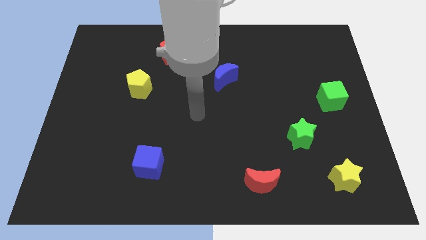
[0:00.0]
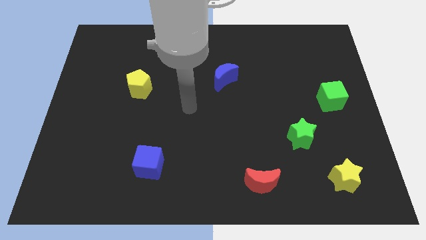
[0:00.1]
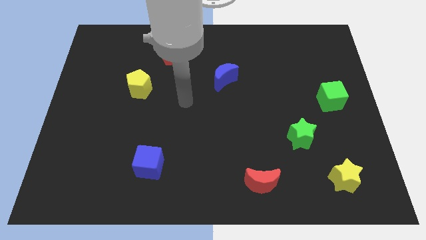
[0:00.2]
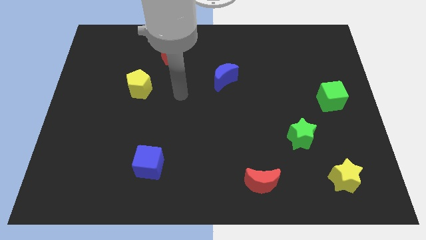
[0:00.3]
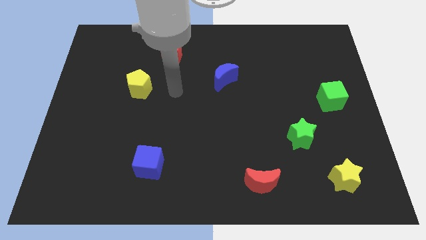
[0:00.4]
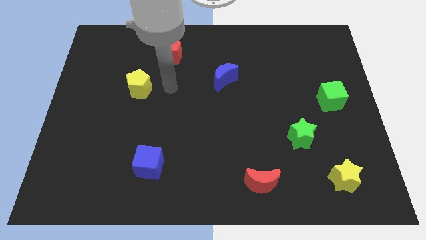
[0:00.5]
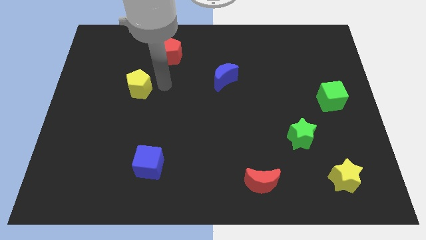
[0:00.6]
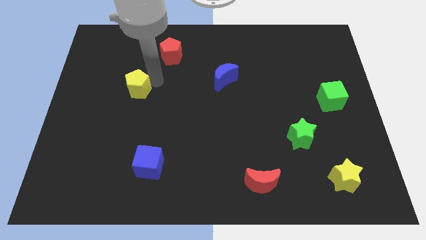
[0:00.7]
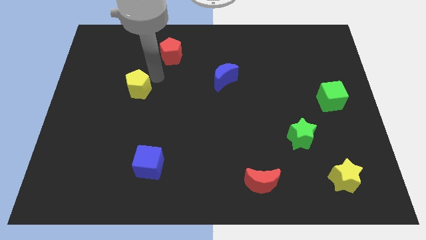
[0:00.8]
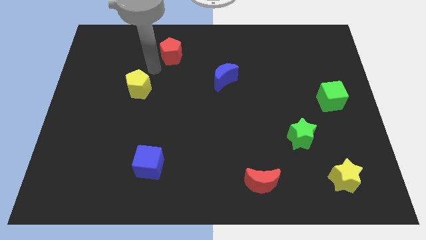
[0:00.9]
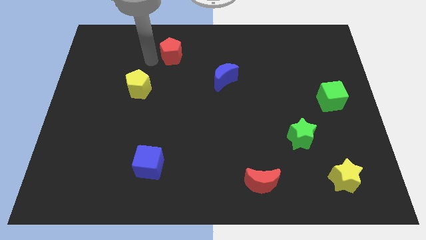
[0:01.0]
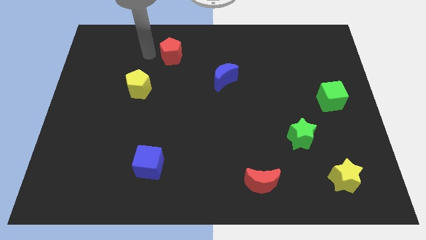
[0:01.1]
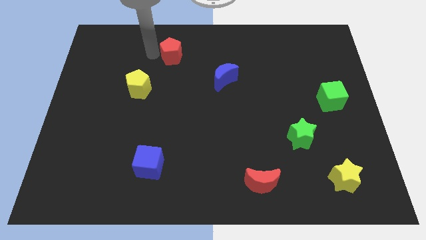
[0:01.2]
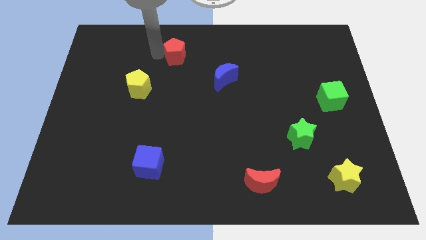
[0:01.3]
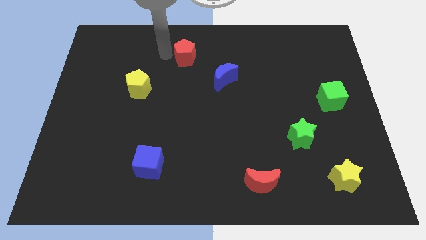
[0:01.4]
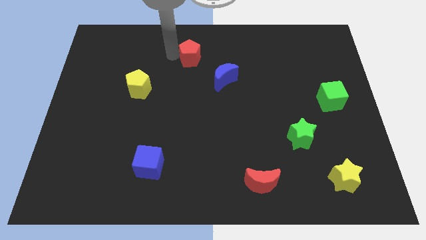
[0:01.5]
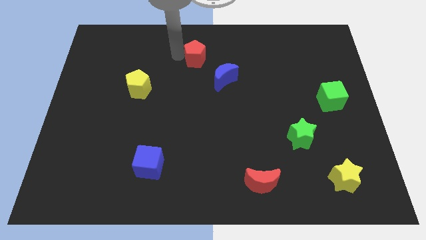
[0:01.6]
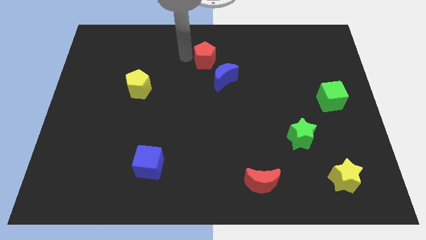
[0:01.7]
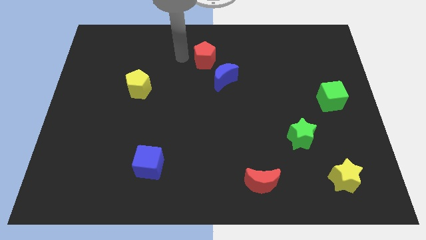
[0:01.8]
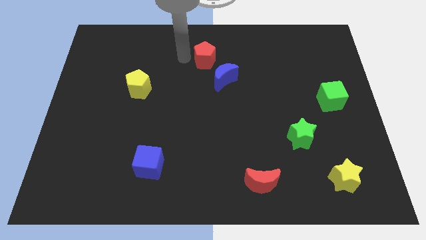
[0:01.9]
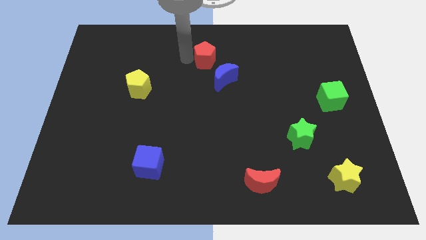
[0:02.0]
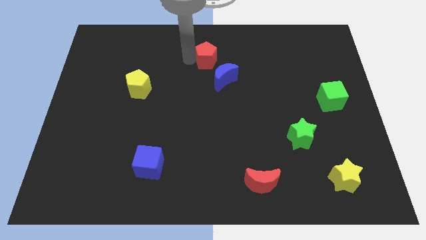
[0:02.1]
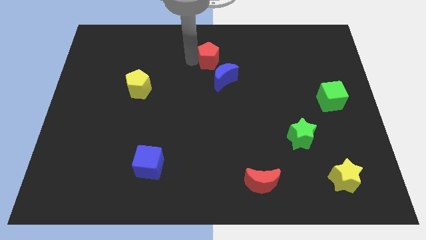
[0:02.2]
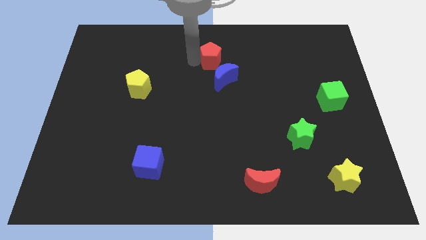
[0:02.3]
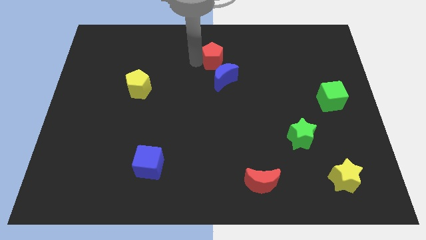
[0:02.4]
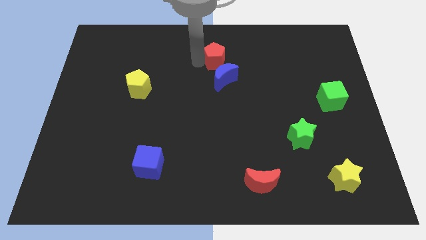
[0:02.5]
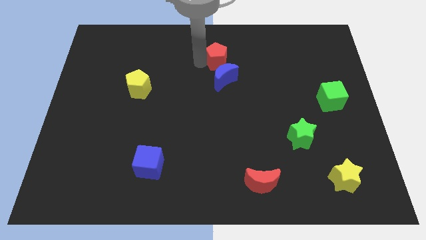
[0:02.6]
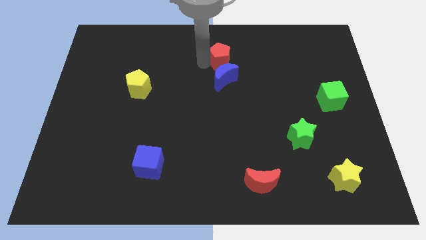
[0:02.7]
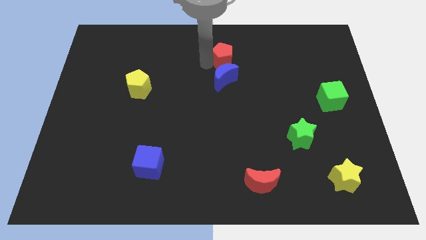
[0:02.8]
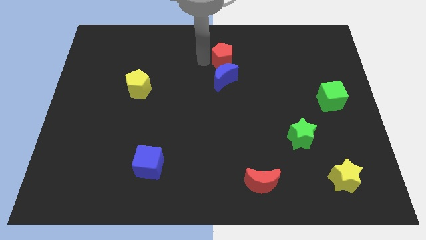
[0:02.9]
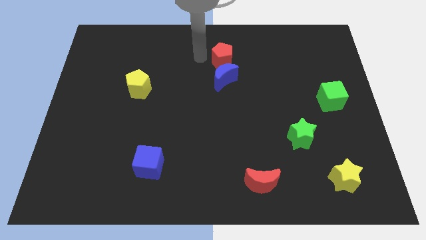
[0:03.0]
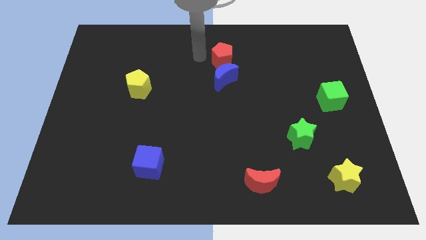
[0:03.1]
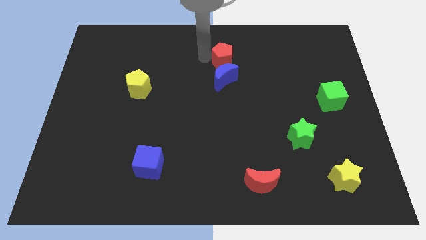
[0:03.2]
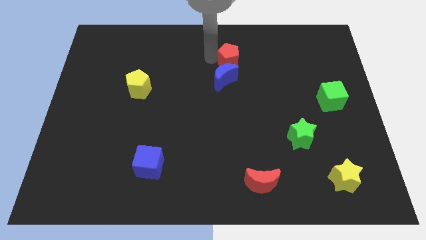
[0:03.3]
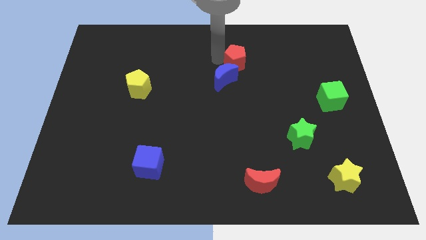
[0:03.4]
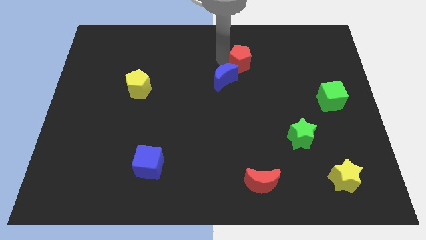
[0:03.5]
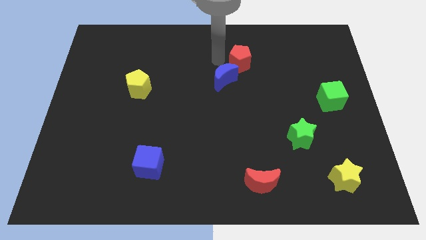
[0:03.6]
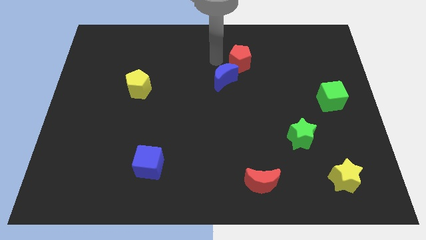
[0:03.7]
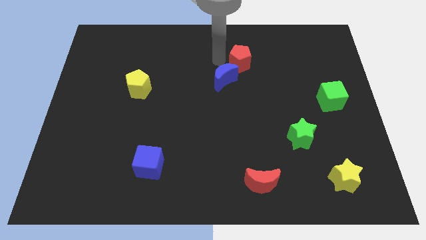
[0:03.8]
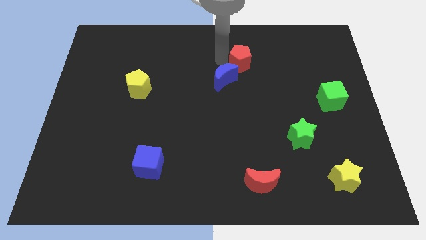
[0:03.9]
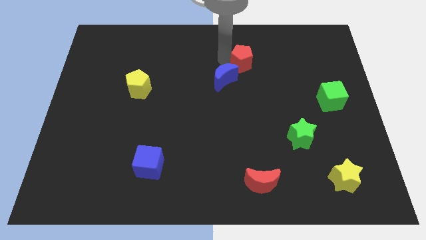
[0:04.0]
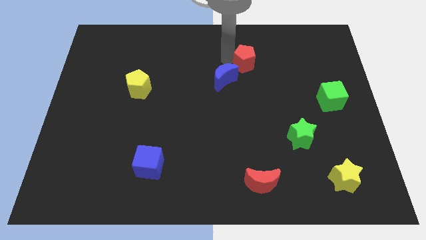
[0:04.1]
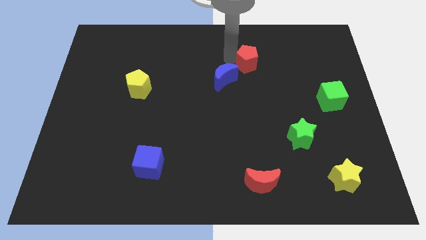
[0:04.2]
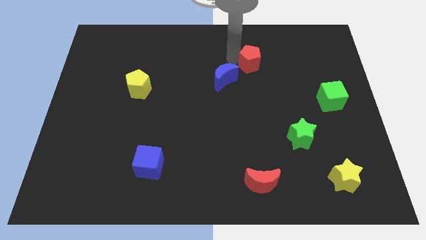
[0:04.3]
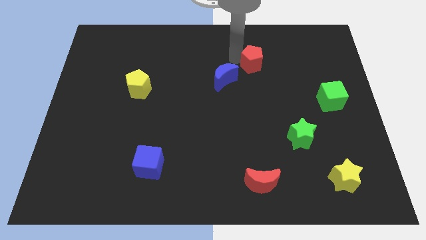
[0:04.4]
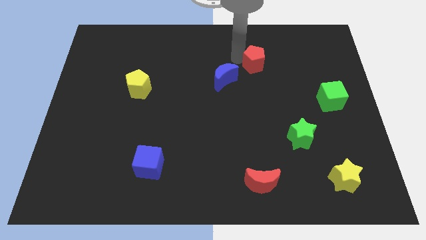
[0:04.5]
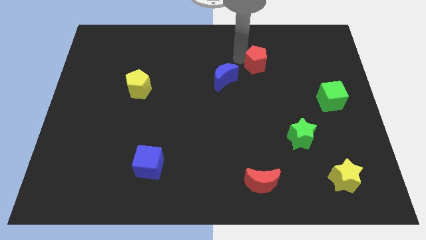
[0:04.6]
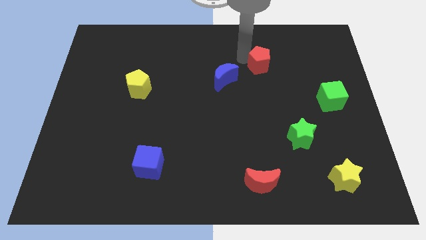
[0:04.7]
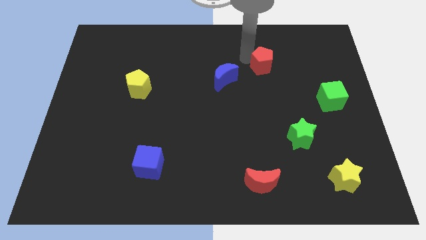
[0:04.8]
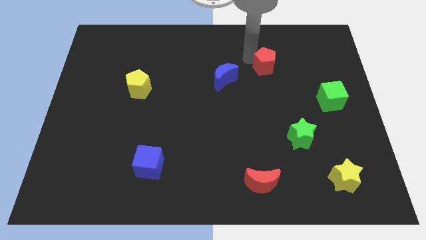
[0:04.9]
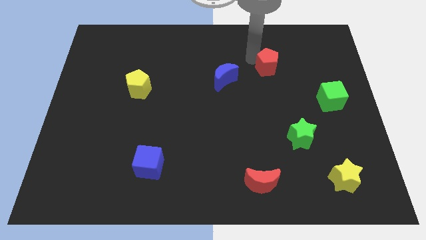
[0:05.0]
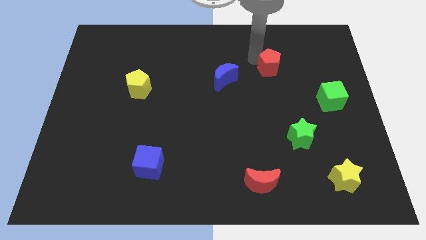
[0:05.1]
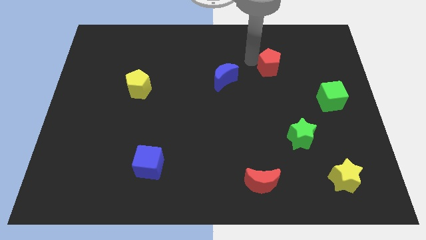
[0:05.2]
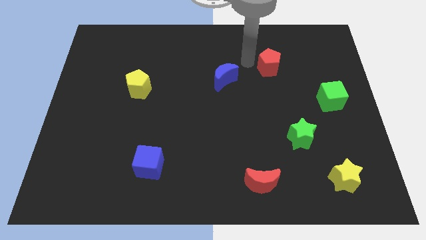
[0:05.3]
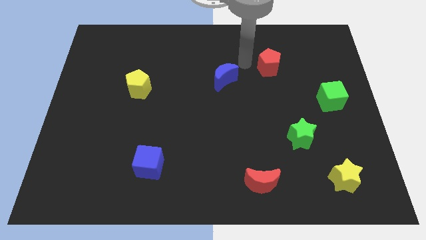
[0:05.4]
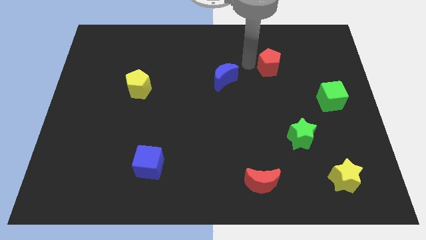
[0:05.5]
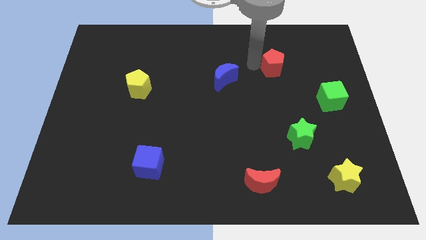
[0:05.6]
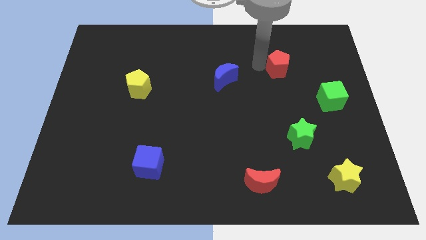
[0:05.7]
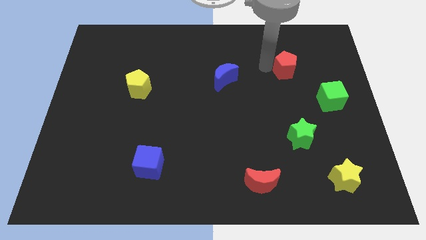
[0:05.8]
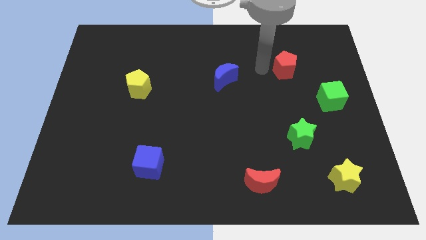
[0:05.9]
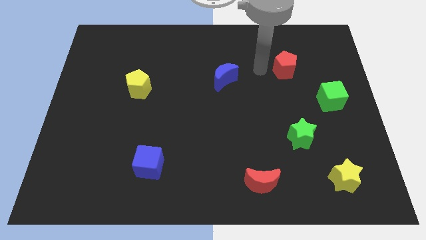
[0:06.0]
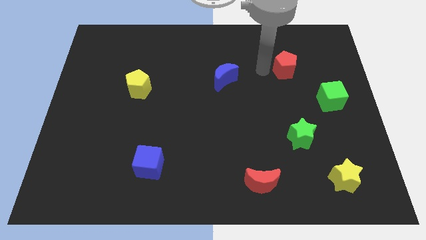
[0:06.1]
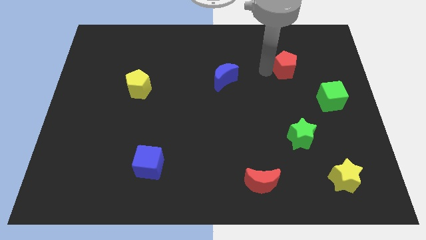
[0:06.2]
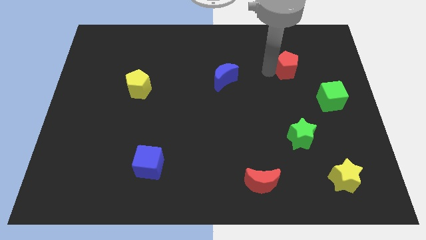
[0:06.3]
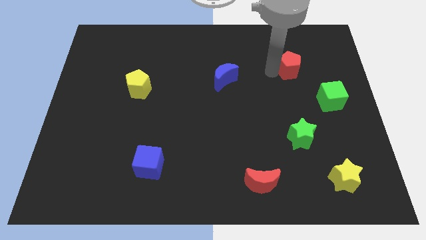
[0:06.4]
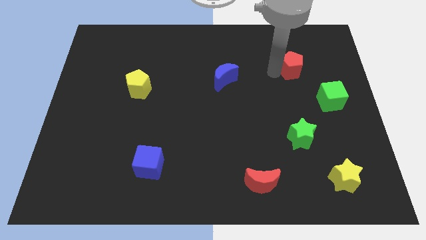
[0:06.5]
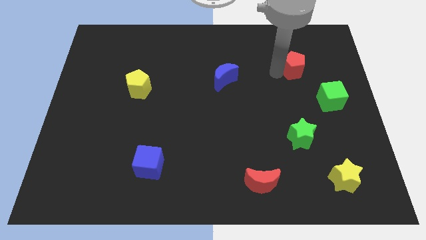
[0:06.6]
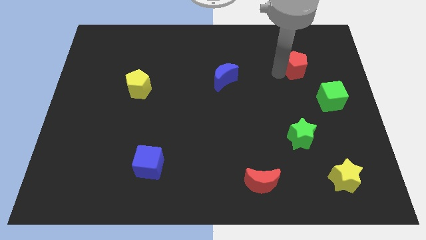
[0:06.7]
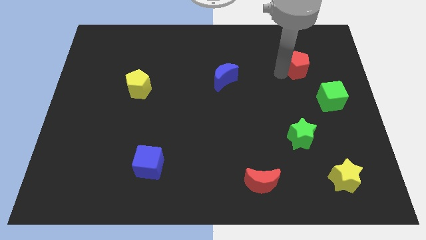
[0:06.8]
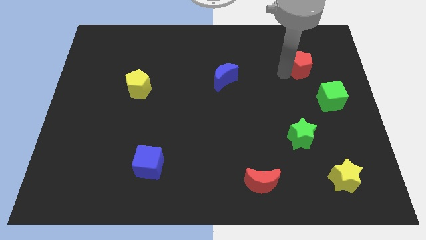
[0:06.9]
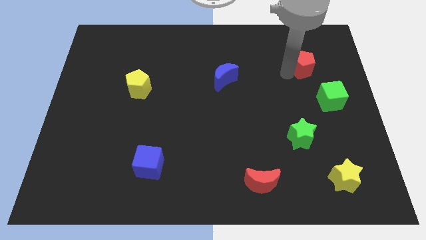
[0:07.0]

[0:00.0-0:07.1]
push the red pentagon to the top side of the green cube
